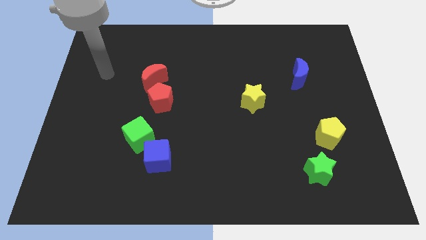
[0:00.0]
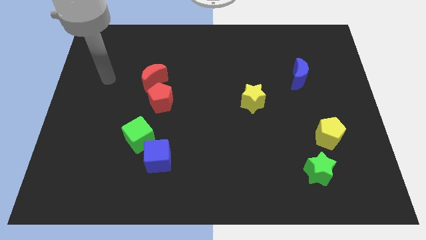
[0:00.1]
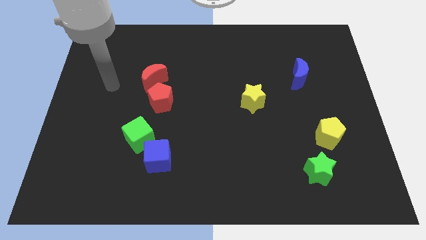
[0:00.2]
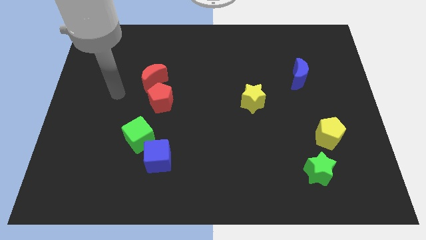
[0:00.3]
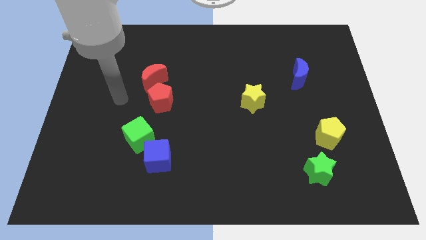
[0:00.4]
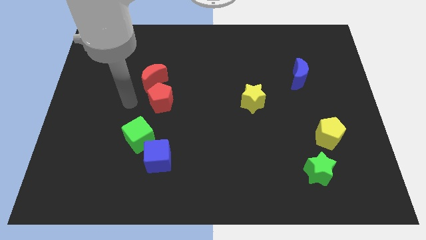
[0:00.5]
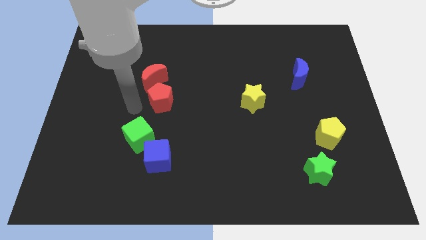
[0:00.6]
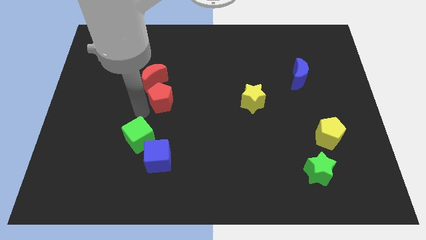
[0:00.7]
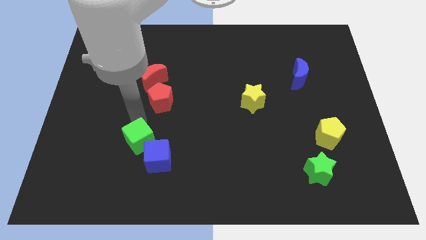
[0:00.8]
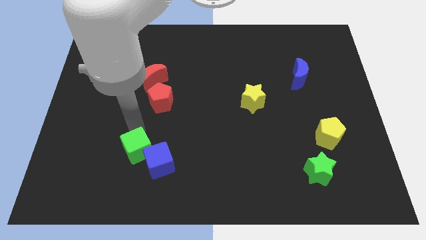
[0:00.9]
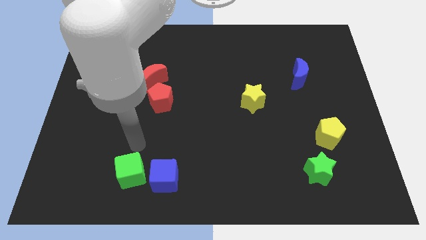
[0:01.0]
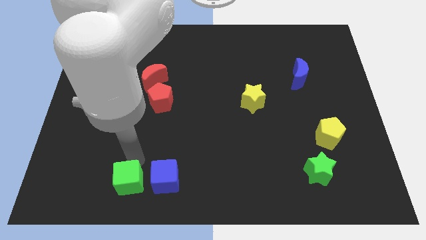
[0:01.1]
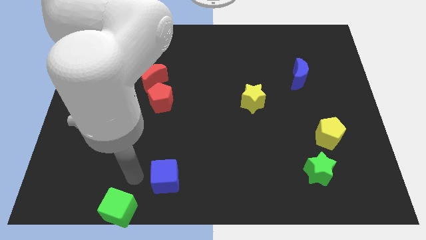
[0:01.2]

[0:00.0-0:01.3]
separate the blue cube from the green cube

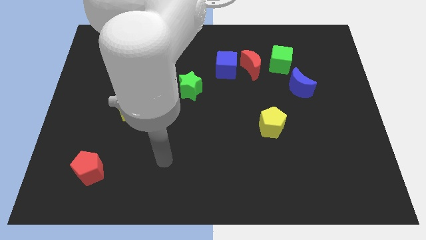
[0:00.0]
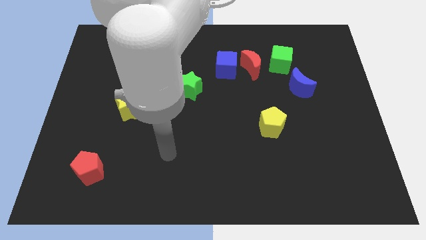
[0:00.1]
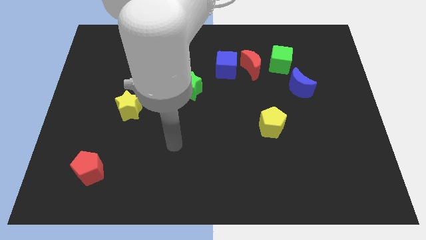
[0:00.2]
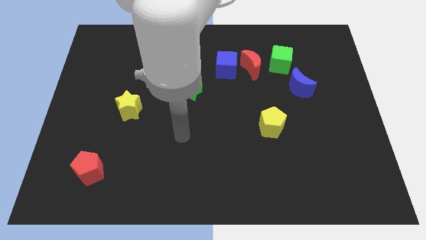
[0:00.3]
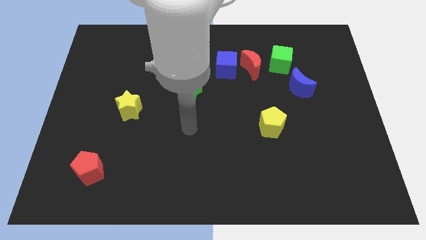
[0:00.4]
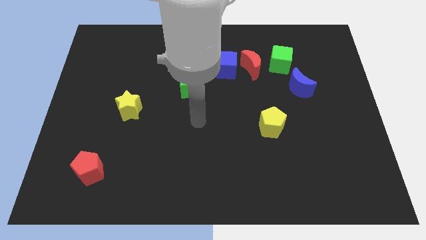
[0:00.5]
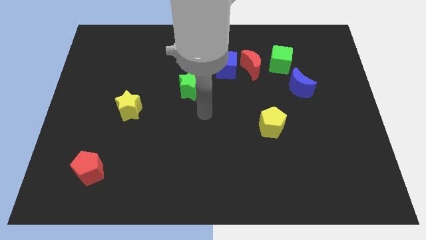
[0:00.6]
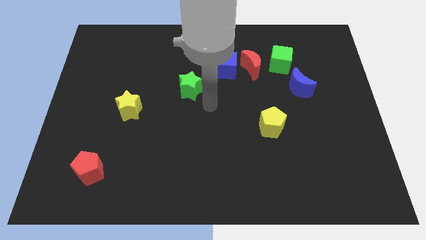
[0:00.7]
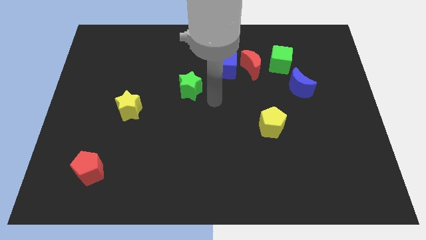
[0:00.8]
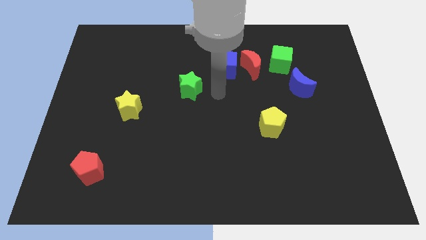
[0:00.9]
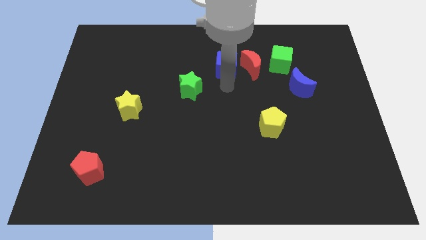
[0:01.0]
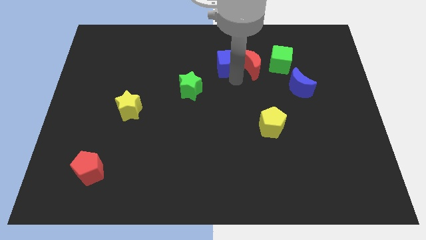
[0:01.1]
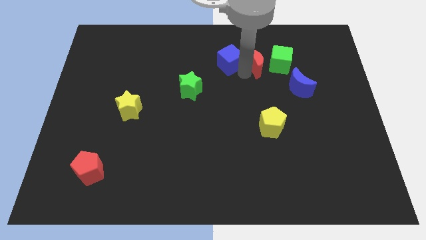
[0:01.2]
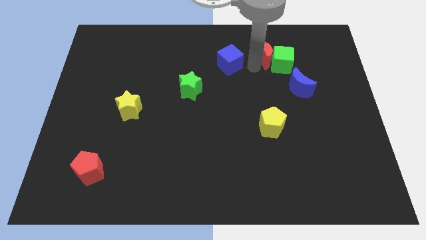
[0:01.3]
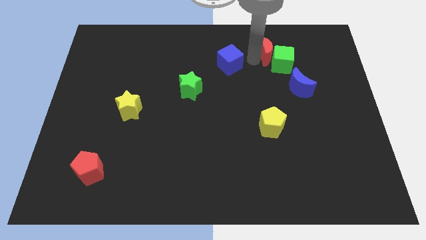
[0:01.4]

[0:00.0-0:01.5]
pull the blue cube apart from the red moon

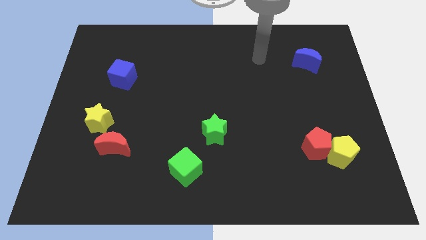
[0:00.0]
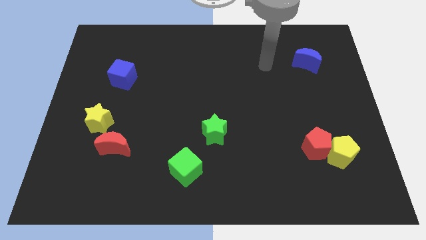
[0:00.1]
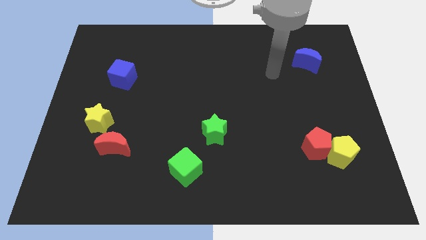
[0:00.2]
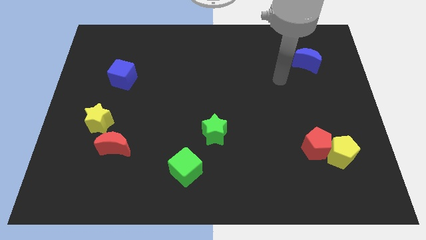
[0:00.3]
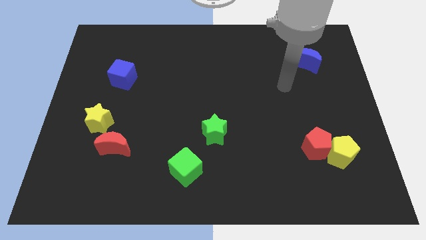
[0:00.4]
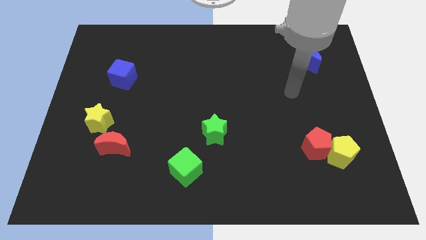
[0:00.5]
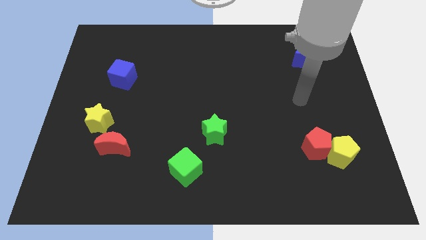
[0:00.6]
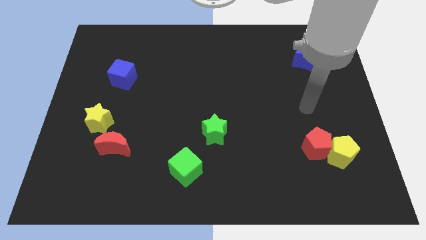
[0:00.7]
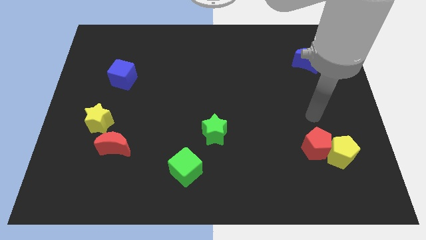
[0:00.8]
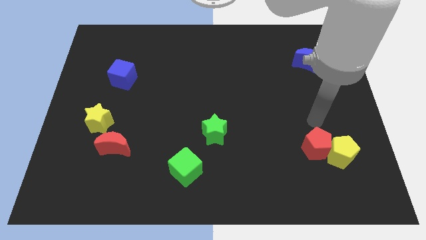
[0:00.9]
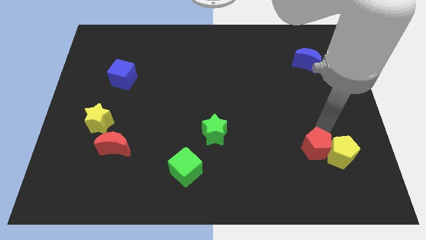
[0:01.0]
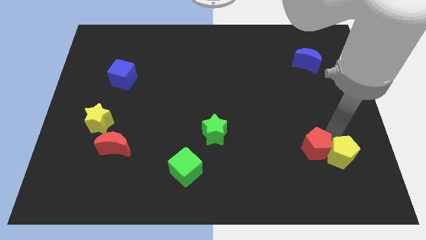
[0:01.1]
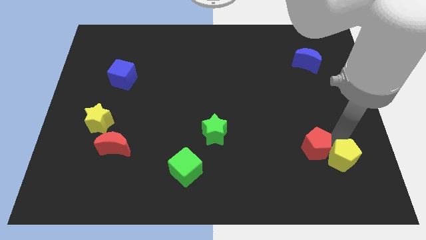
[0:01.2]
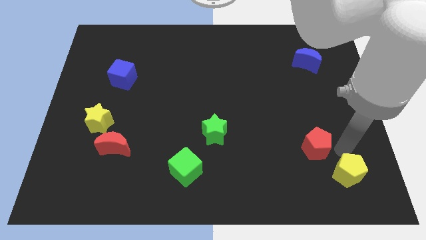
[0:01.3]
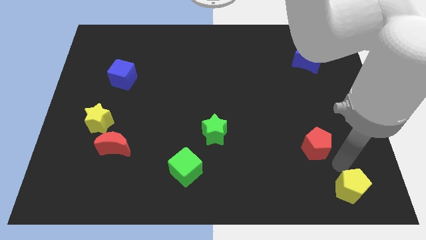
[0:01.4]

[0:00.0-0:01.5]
separate the red pentagon from the yellow pentagon

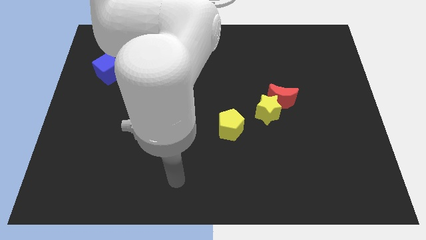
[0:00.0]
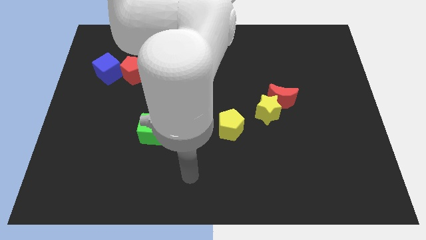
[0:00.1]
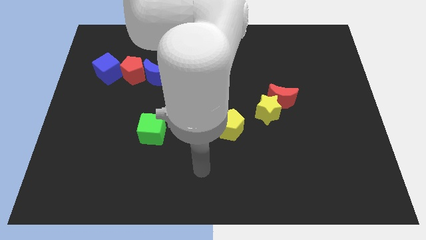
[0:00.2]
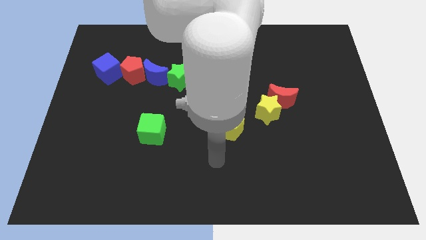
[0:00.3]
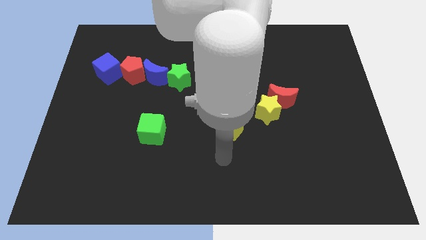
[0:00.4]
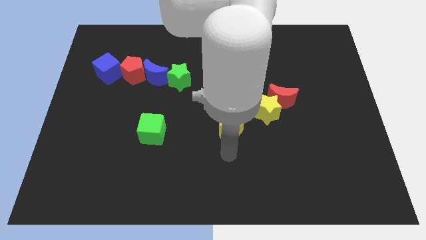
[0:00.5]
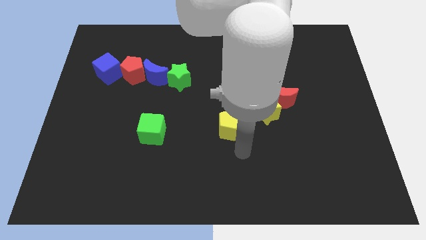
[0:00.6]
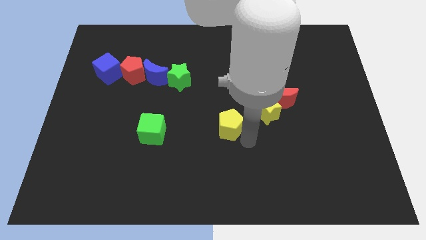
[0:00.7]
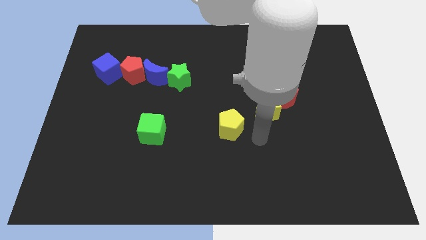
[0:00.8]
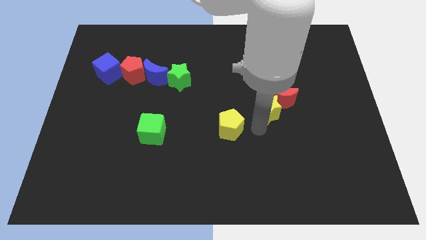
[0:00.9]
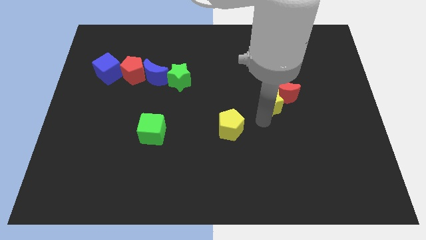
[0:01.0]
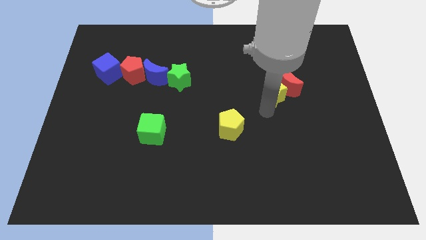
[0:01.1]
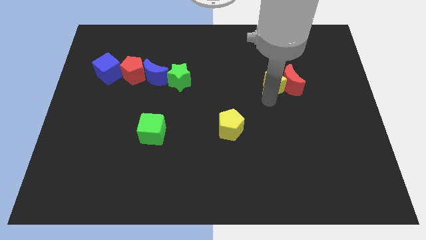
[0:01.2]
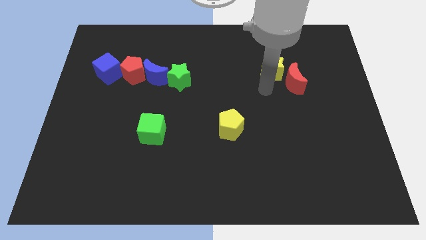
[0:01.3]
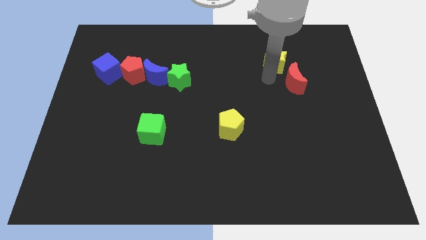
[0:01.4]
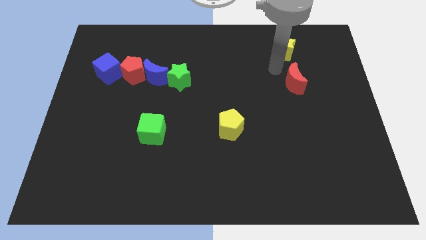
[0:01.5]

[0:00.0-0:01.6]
separate the red moon from the yellow star

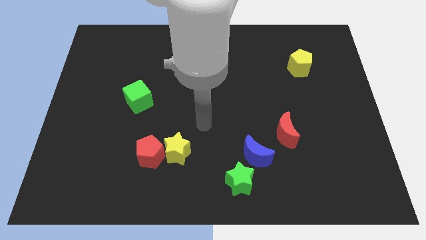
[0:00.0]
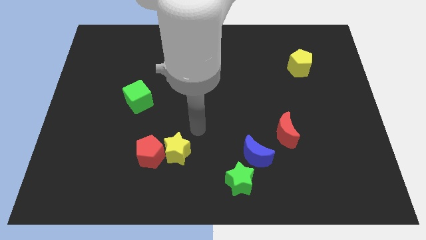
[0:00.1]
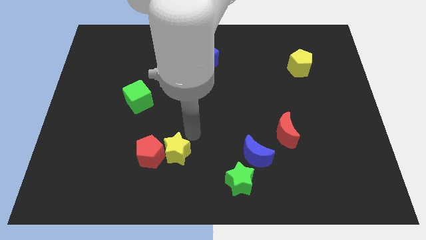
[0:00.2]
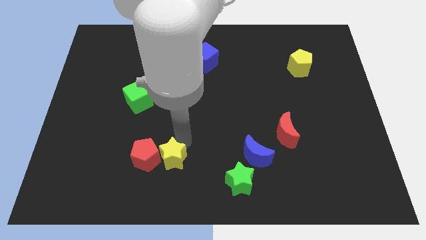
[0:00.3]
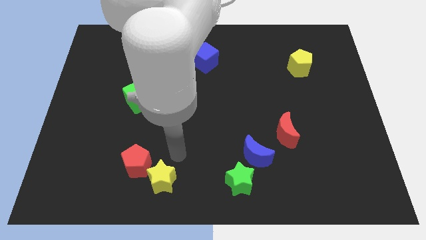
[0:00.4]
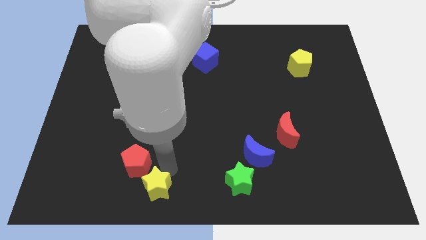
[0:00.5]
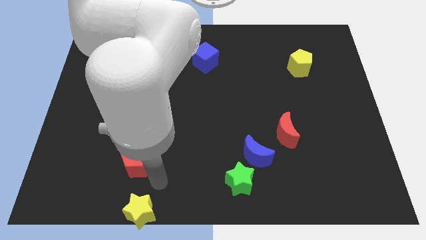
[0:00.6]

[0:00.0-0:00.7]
separate the red pentagon from the yellow star

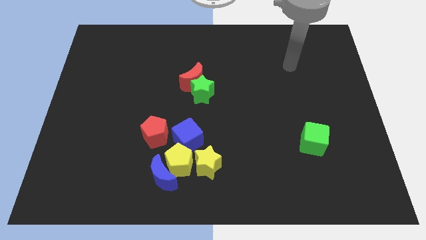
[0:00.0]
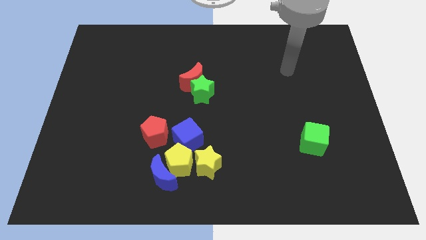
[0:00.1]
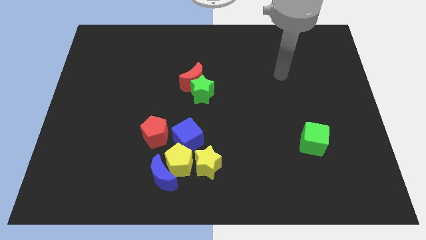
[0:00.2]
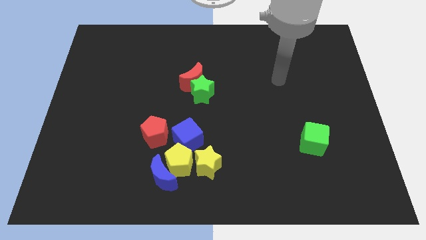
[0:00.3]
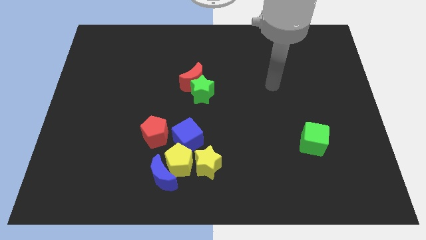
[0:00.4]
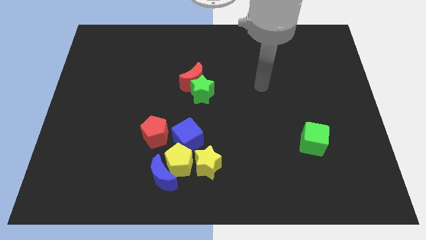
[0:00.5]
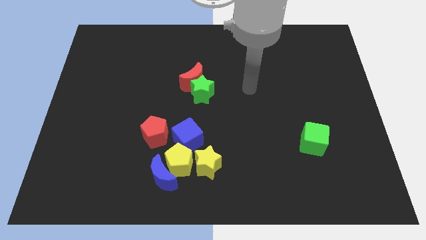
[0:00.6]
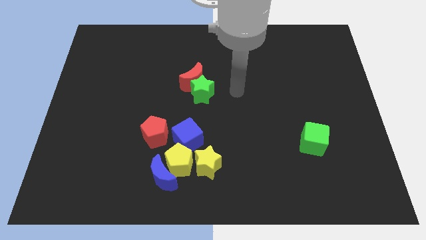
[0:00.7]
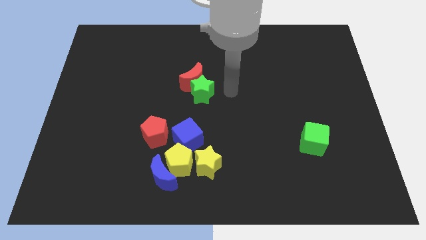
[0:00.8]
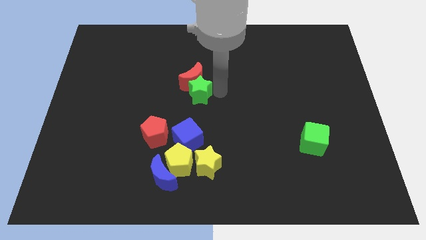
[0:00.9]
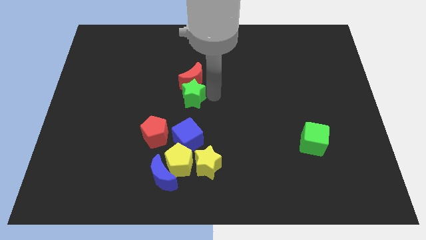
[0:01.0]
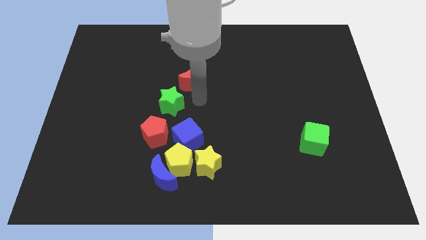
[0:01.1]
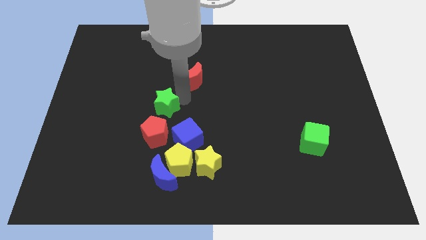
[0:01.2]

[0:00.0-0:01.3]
move the red moon away from the green star

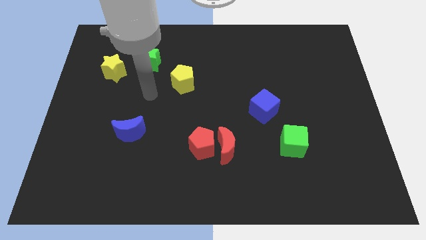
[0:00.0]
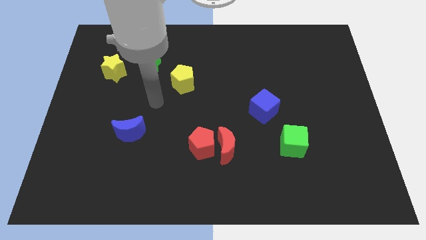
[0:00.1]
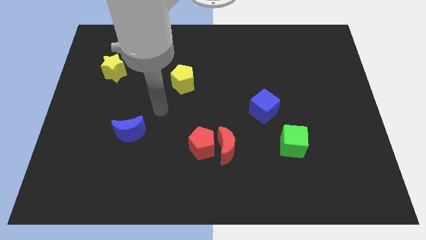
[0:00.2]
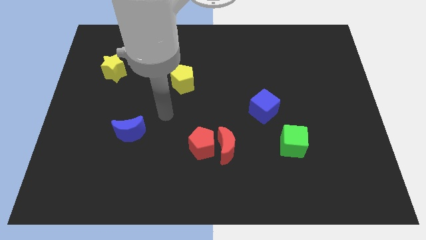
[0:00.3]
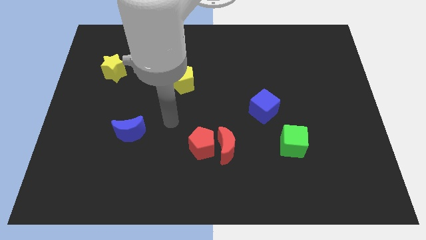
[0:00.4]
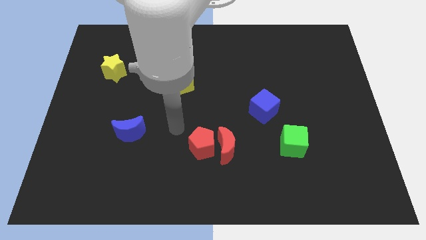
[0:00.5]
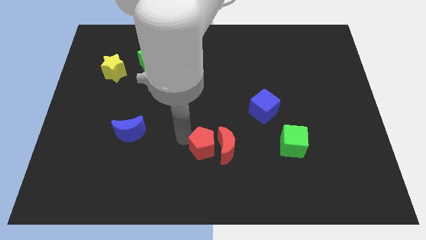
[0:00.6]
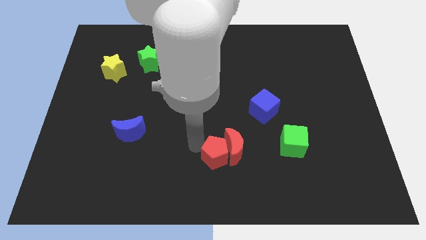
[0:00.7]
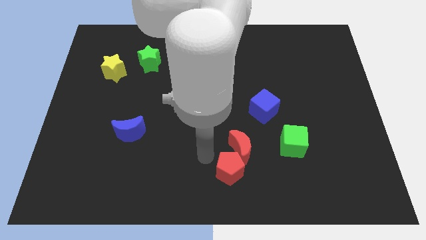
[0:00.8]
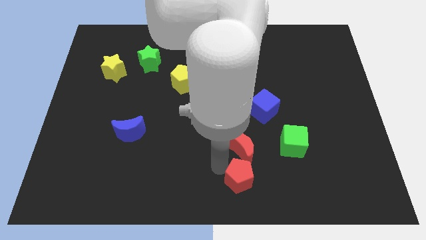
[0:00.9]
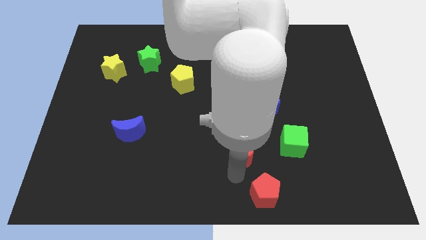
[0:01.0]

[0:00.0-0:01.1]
pull the red moon apart from the red pentagon

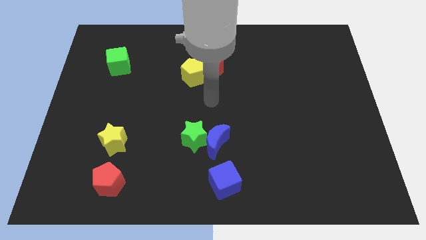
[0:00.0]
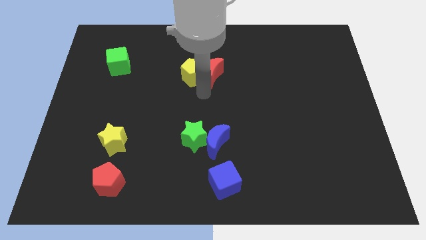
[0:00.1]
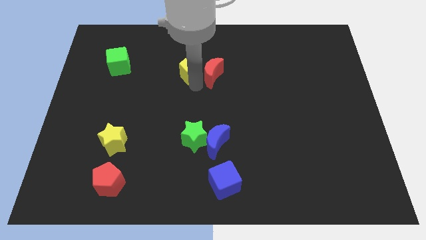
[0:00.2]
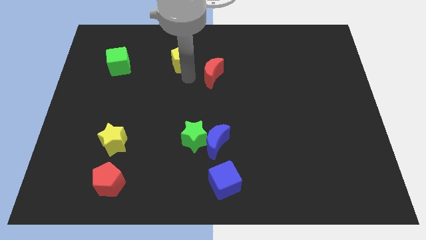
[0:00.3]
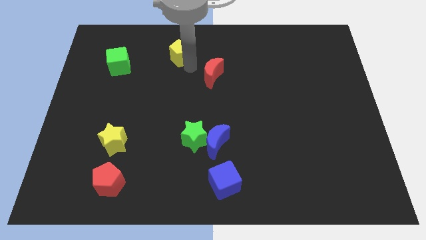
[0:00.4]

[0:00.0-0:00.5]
separate the red moon from the yellow pentagon
